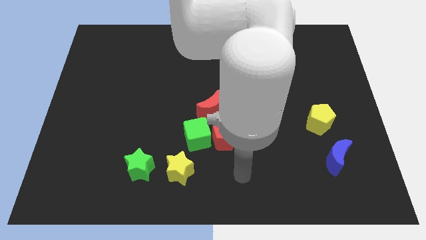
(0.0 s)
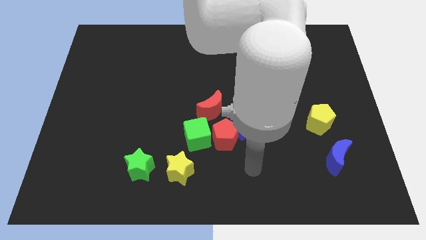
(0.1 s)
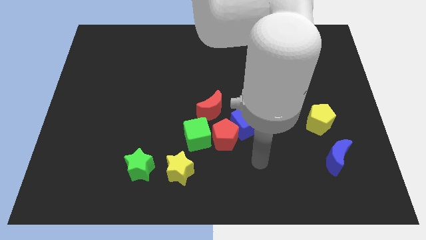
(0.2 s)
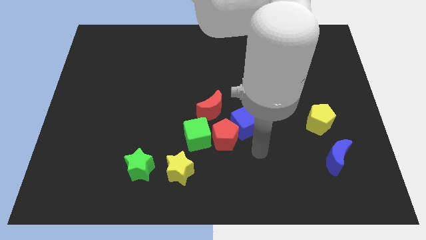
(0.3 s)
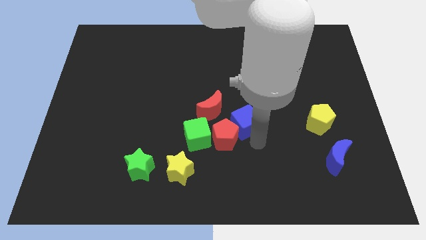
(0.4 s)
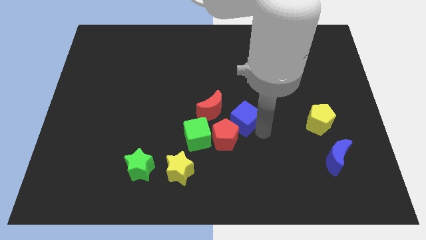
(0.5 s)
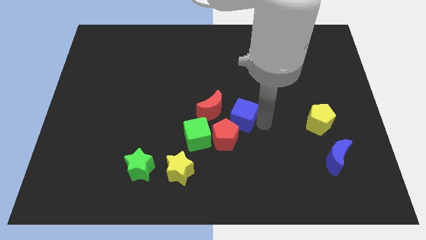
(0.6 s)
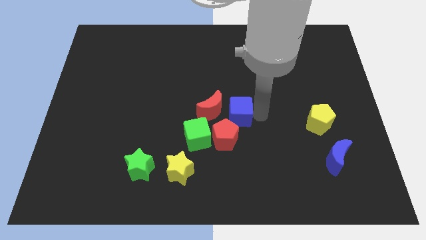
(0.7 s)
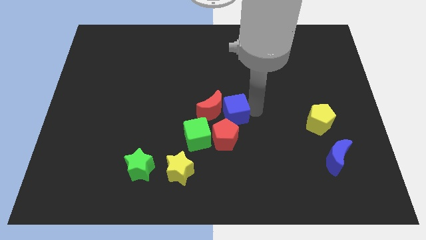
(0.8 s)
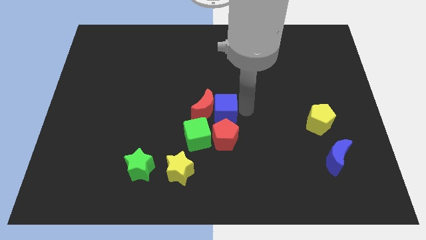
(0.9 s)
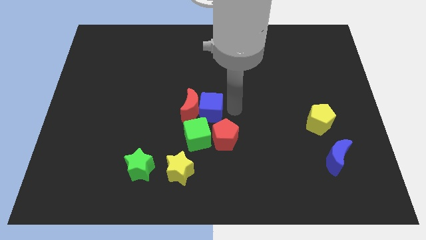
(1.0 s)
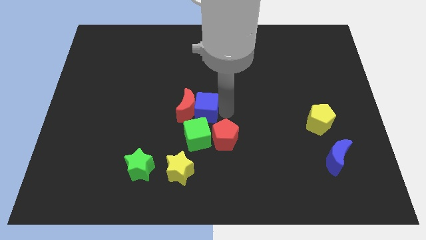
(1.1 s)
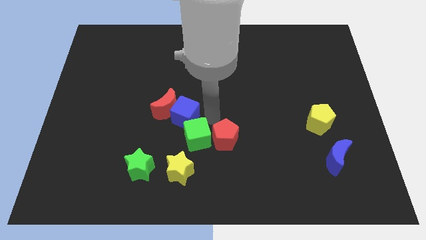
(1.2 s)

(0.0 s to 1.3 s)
separate the red pentagon from the blue cube, green cube, and red moon

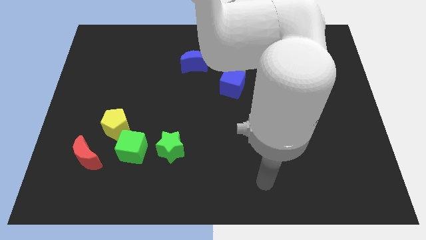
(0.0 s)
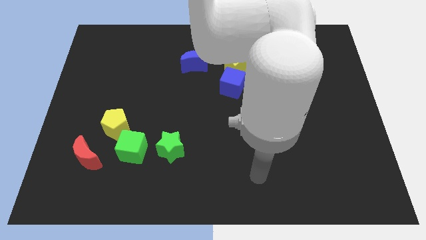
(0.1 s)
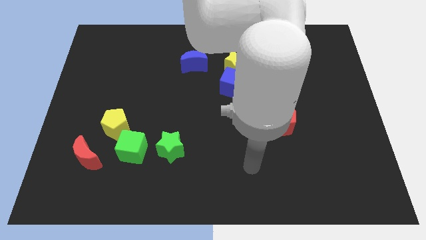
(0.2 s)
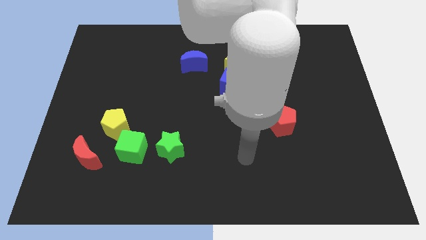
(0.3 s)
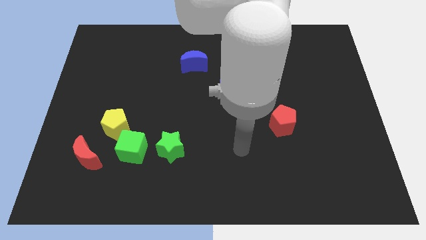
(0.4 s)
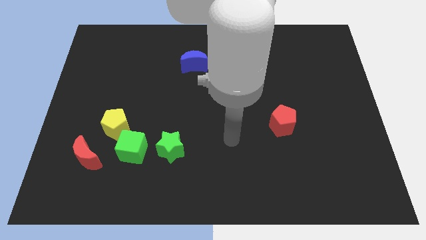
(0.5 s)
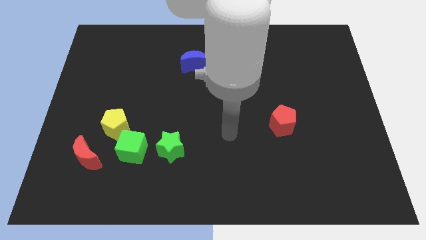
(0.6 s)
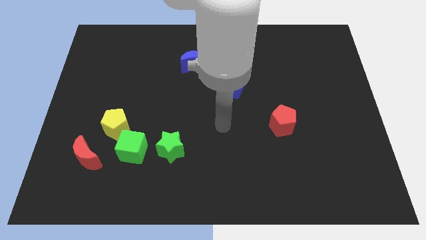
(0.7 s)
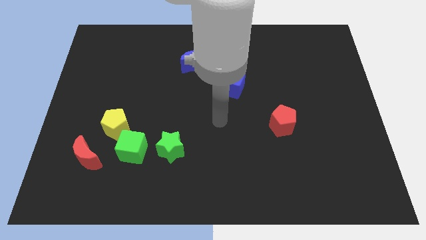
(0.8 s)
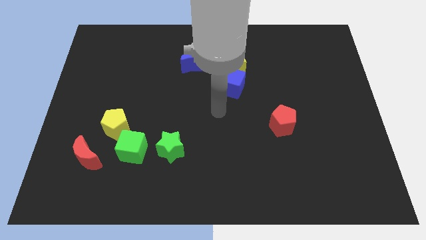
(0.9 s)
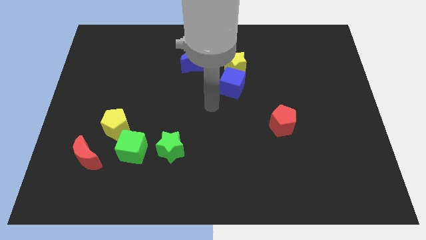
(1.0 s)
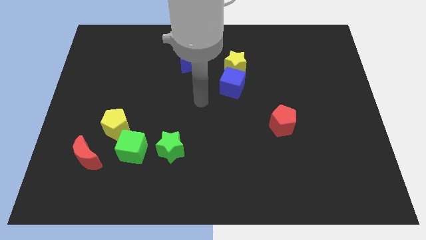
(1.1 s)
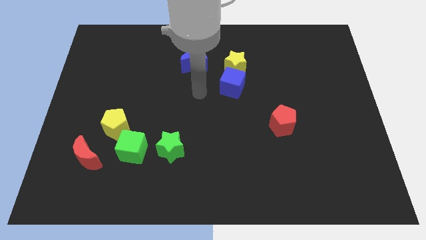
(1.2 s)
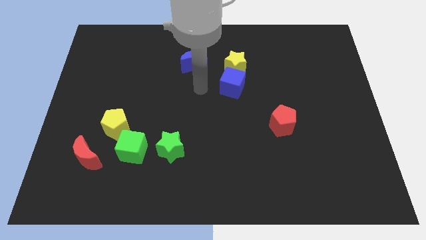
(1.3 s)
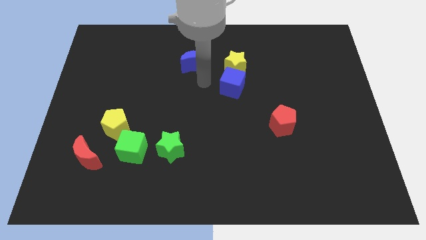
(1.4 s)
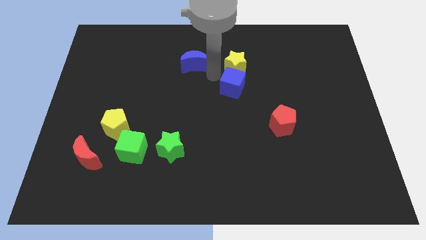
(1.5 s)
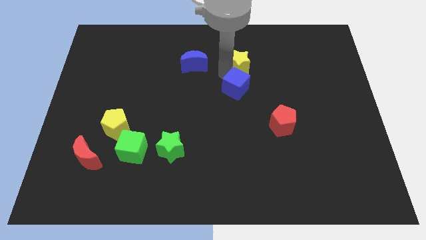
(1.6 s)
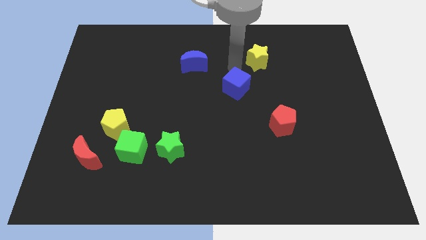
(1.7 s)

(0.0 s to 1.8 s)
separate the blue cube from the yellow star

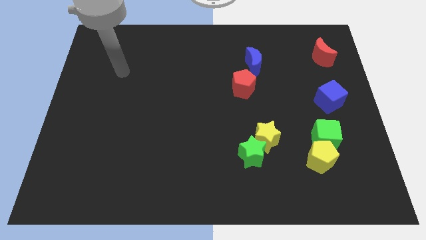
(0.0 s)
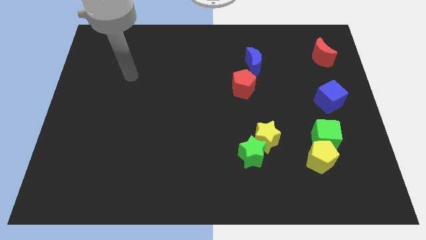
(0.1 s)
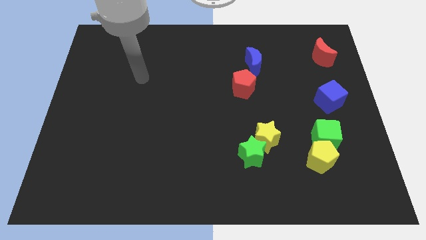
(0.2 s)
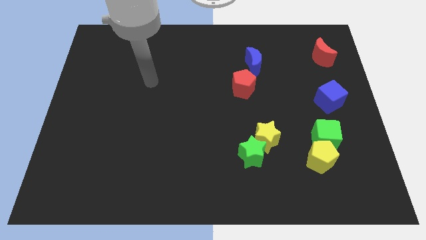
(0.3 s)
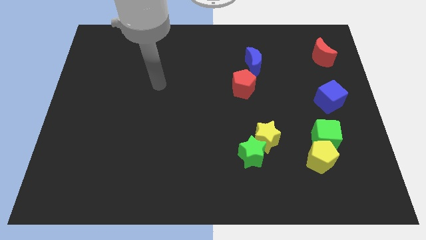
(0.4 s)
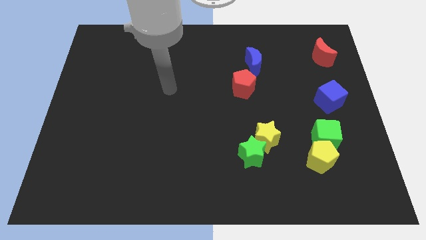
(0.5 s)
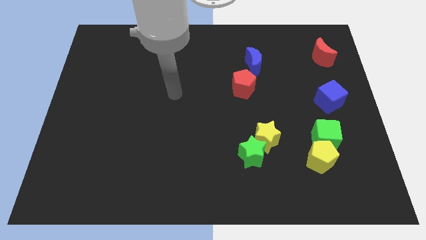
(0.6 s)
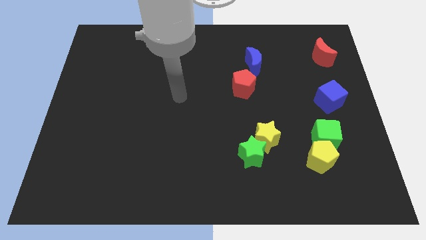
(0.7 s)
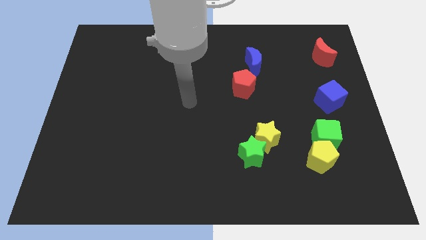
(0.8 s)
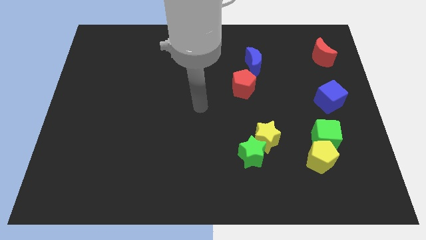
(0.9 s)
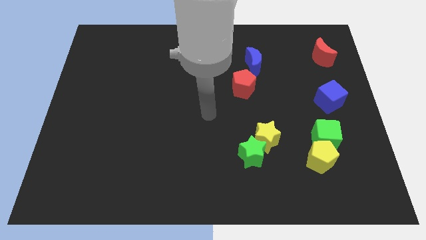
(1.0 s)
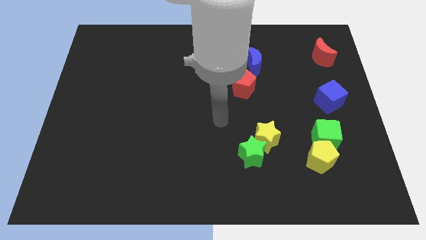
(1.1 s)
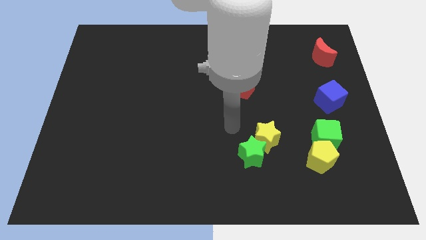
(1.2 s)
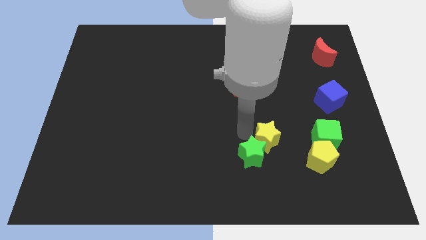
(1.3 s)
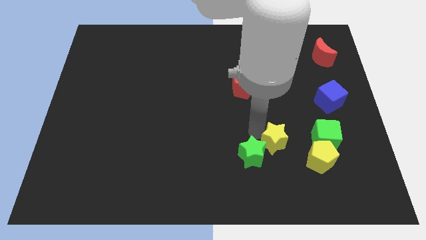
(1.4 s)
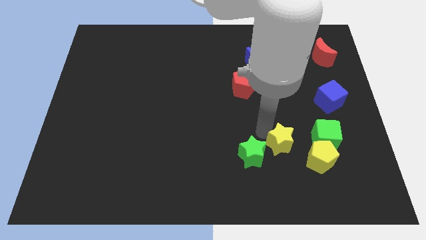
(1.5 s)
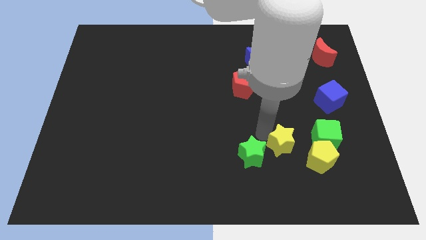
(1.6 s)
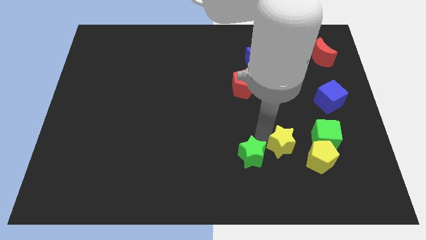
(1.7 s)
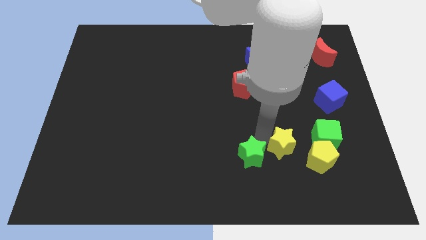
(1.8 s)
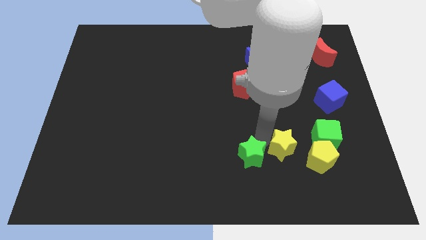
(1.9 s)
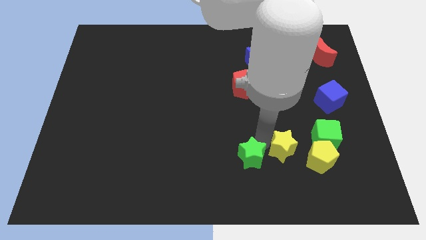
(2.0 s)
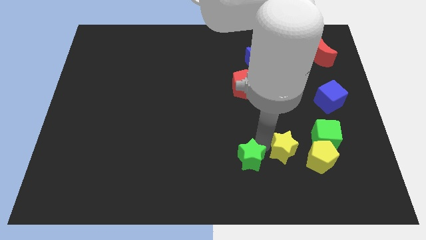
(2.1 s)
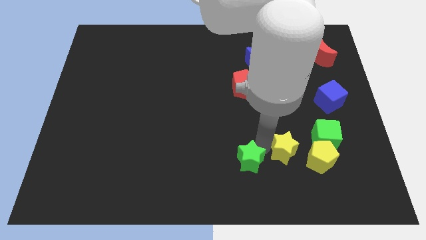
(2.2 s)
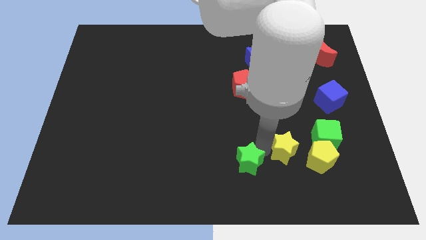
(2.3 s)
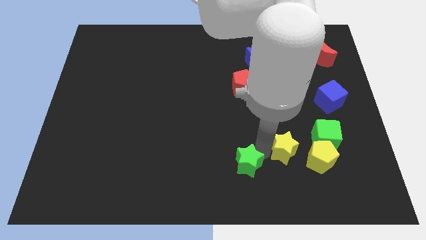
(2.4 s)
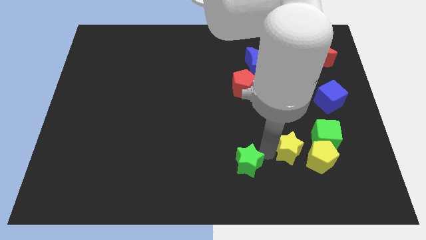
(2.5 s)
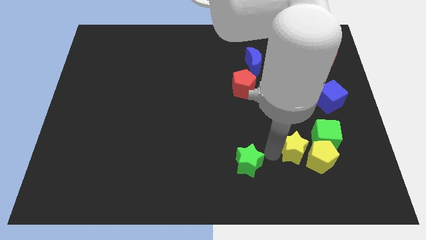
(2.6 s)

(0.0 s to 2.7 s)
pull the green star apart from the yellow star

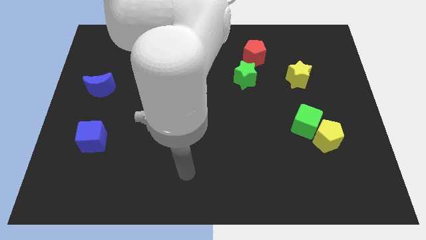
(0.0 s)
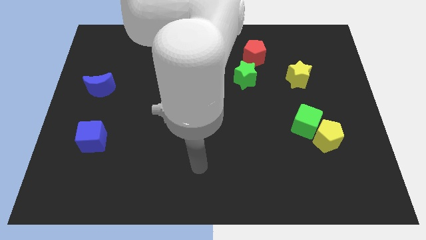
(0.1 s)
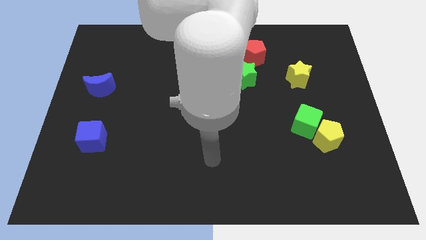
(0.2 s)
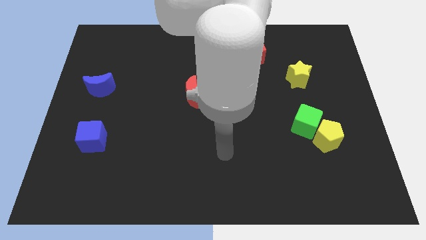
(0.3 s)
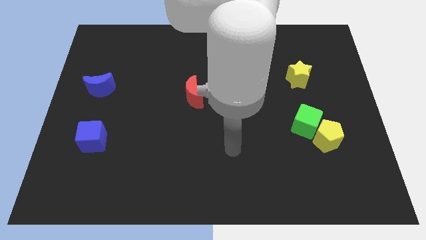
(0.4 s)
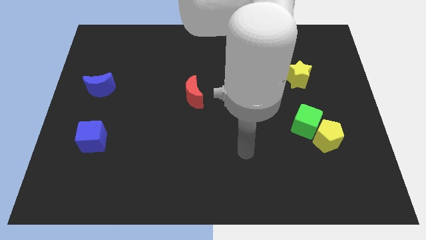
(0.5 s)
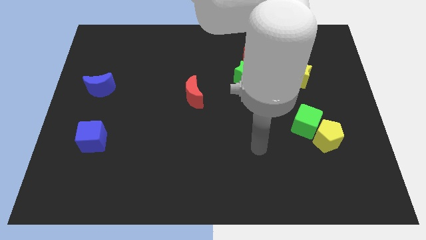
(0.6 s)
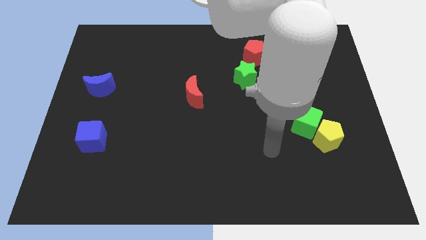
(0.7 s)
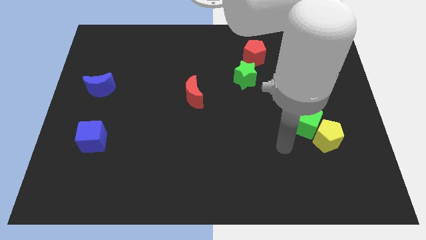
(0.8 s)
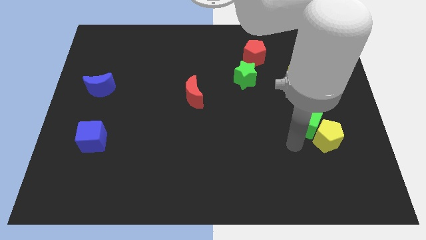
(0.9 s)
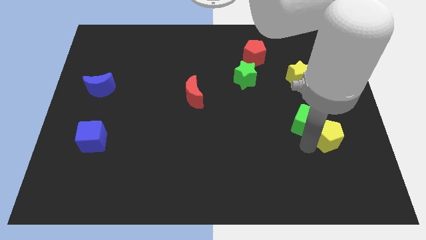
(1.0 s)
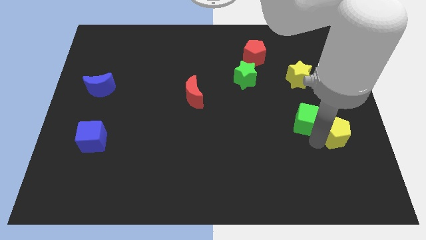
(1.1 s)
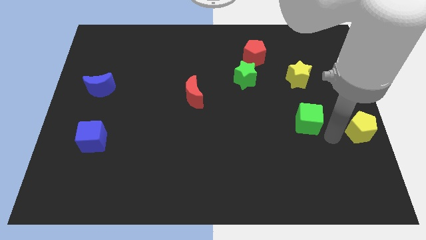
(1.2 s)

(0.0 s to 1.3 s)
move the green cube away from the yellow pentagon

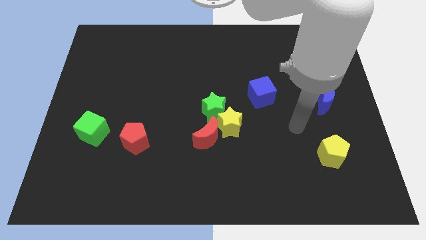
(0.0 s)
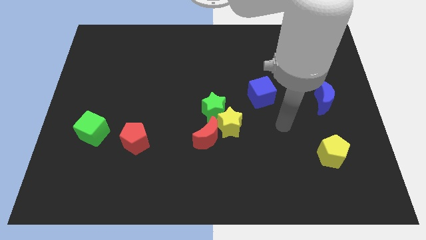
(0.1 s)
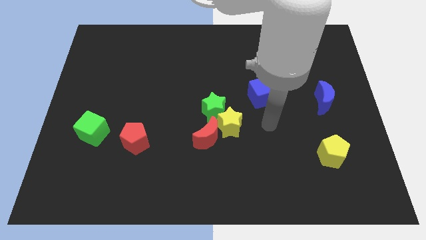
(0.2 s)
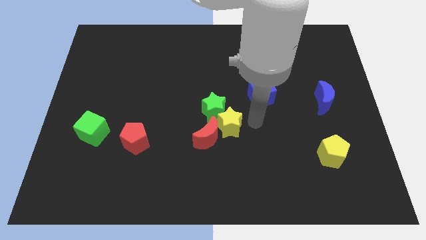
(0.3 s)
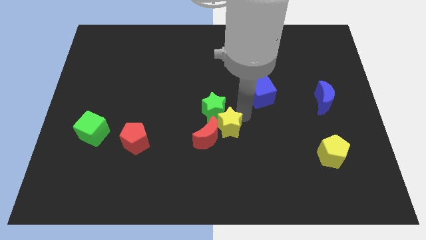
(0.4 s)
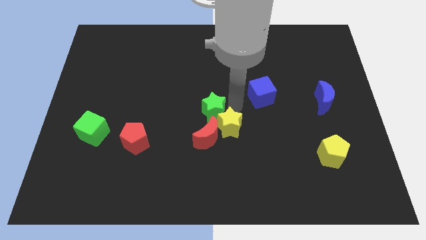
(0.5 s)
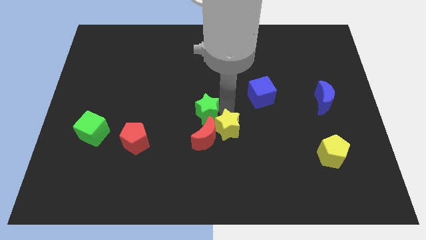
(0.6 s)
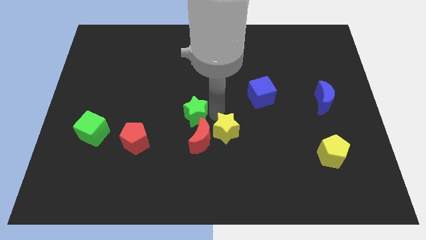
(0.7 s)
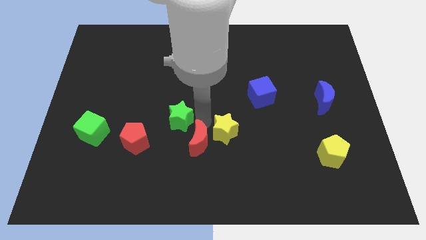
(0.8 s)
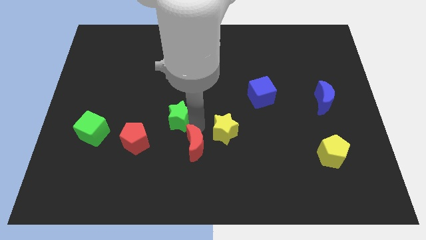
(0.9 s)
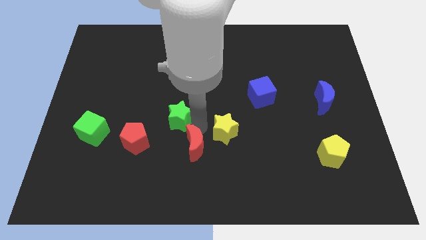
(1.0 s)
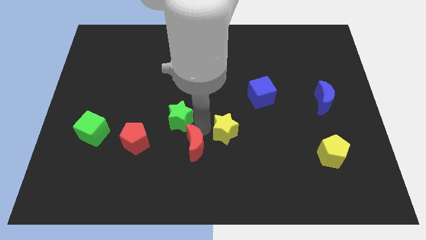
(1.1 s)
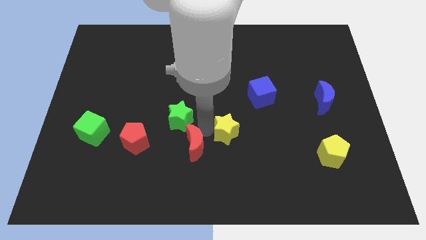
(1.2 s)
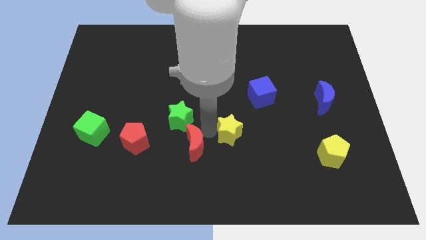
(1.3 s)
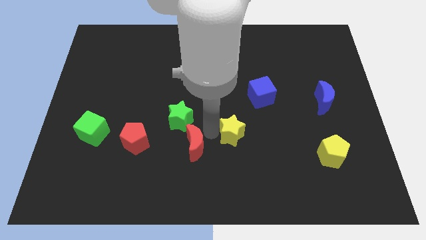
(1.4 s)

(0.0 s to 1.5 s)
pull the yellow star apart from the green star and red moon

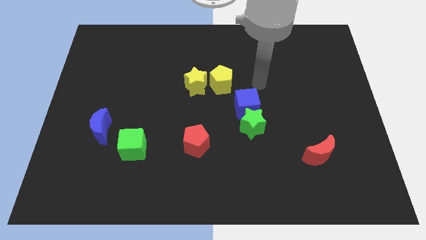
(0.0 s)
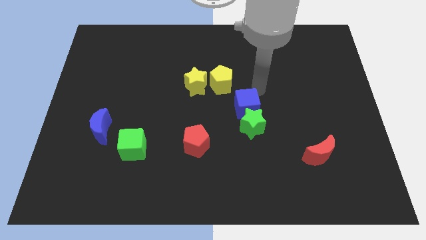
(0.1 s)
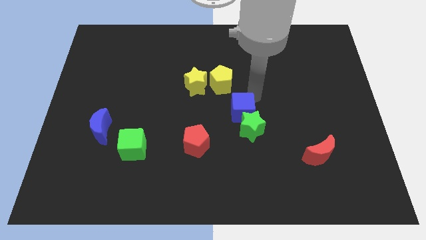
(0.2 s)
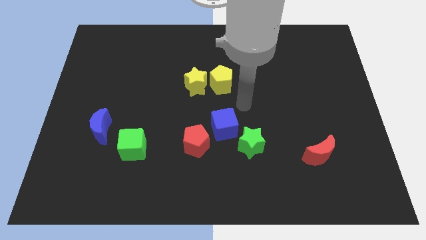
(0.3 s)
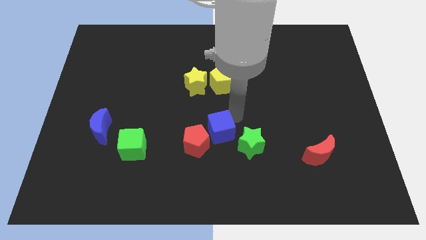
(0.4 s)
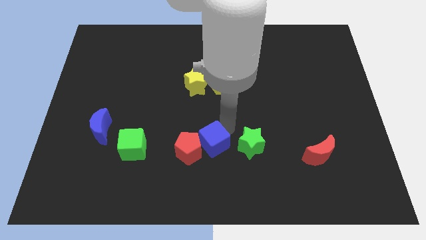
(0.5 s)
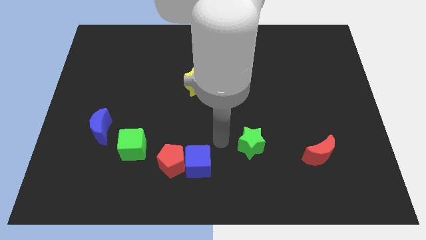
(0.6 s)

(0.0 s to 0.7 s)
pull the green star apart from the blue cube
